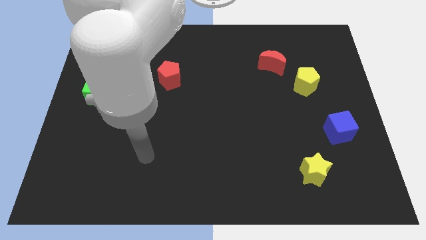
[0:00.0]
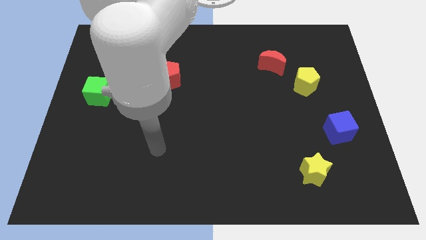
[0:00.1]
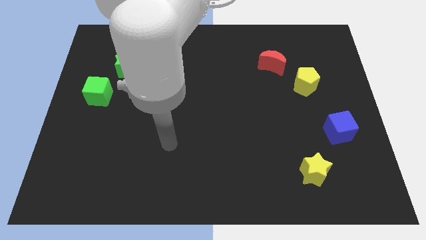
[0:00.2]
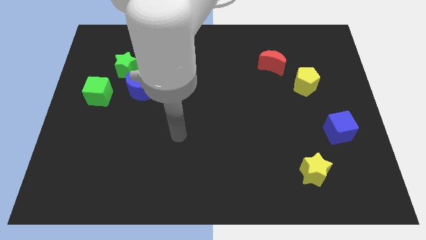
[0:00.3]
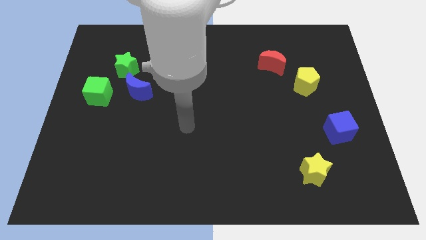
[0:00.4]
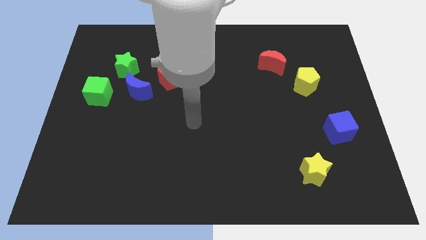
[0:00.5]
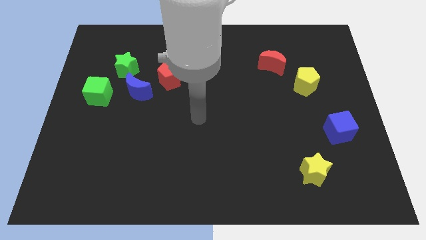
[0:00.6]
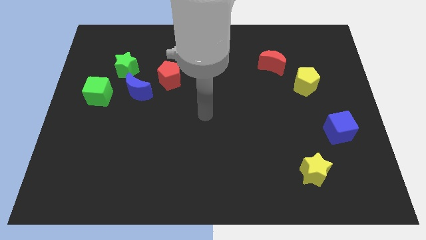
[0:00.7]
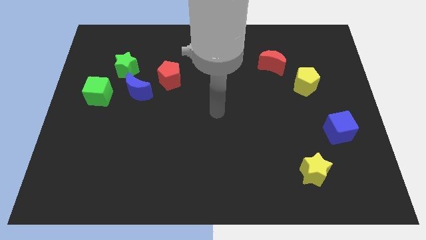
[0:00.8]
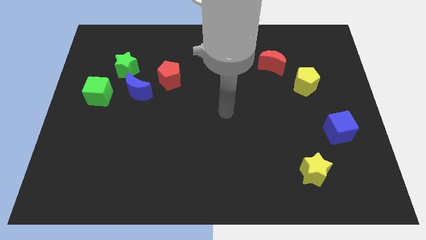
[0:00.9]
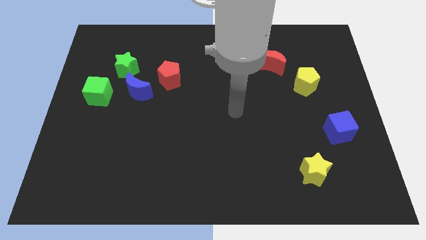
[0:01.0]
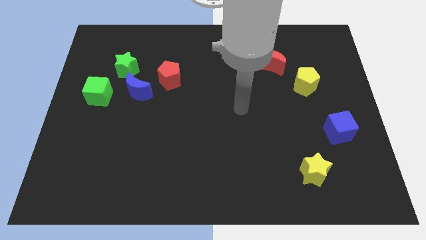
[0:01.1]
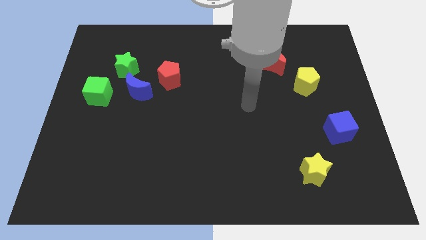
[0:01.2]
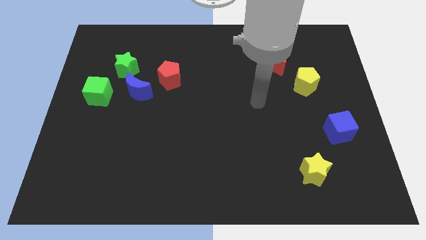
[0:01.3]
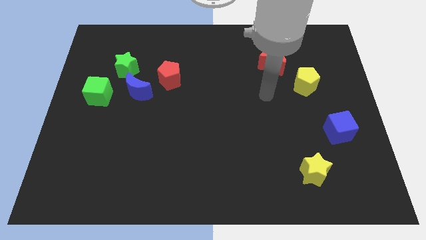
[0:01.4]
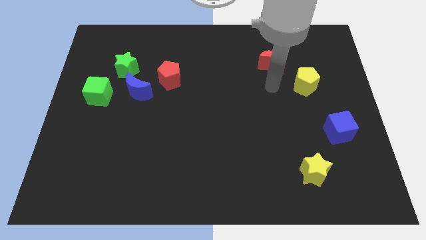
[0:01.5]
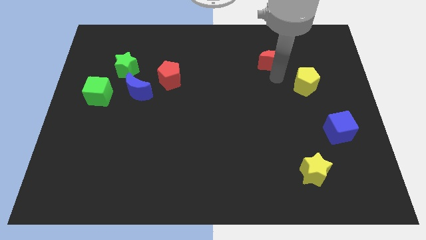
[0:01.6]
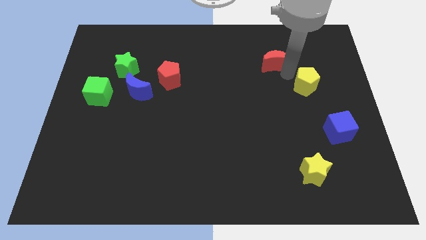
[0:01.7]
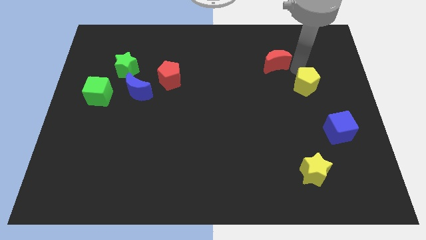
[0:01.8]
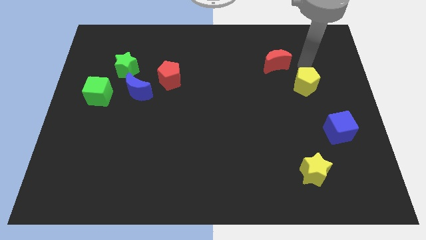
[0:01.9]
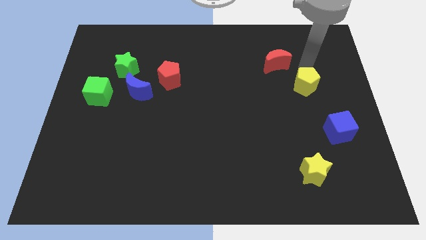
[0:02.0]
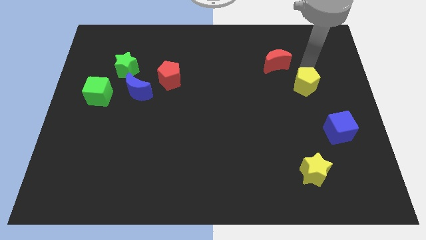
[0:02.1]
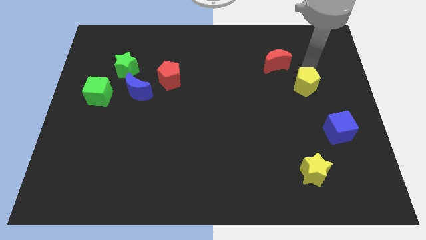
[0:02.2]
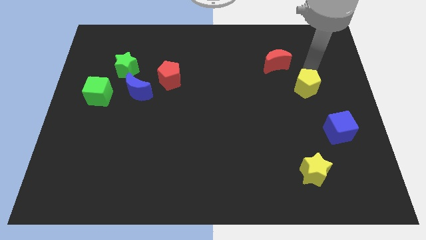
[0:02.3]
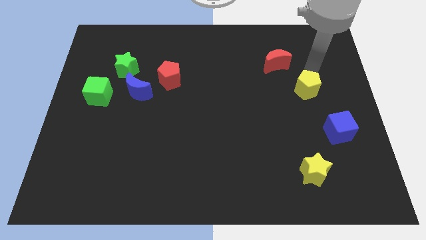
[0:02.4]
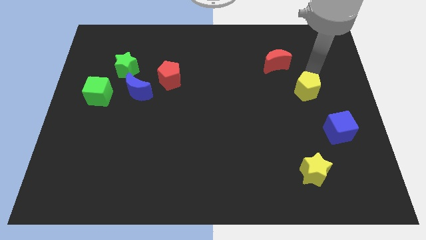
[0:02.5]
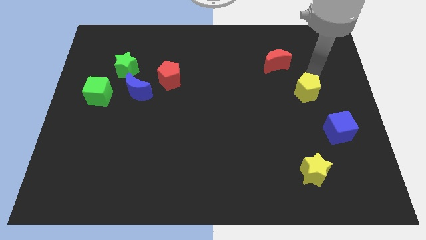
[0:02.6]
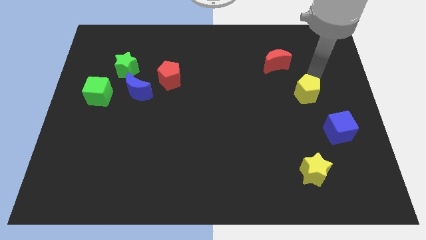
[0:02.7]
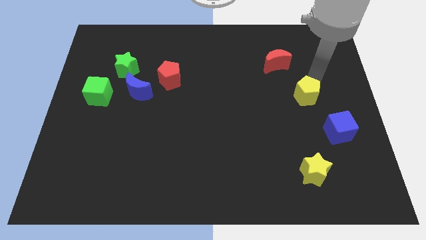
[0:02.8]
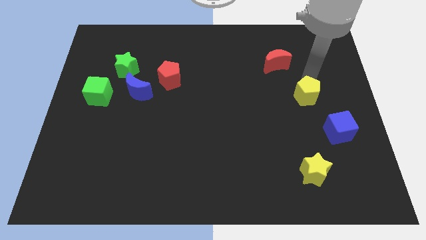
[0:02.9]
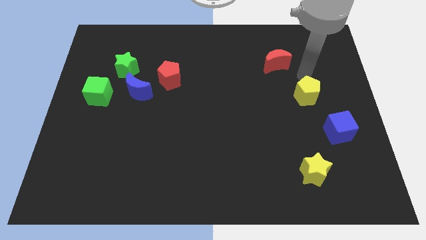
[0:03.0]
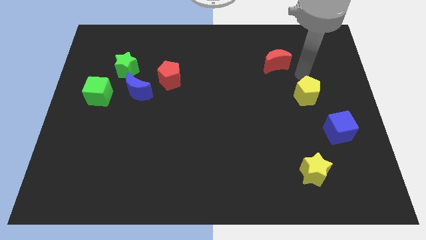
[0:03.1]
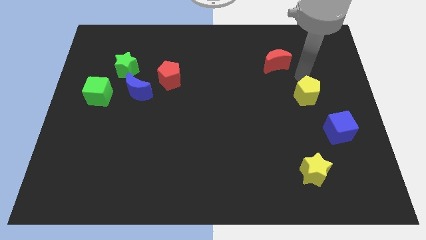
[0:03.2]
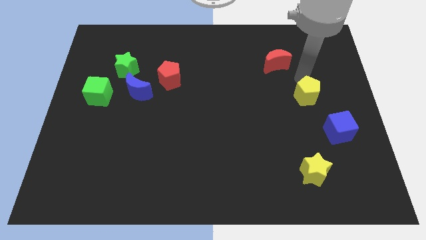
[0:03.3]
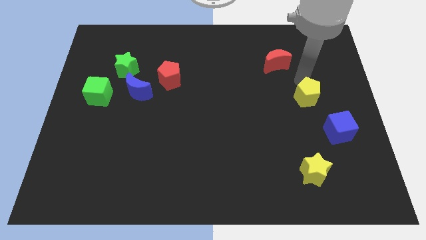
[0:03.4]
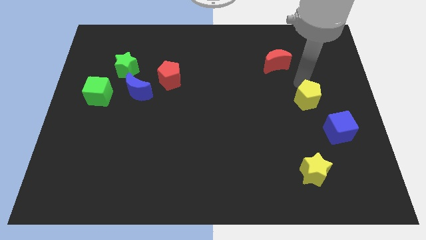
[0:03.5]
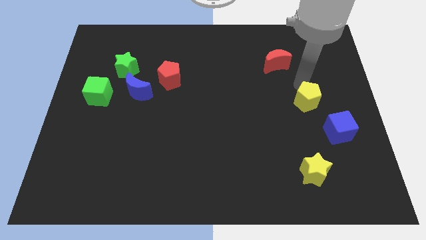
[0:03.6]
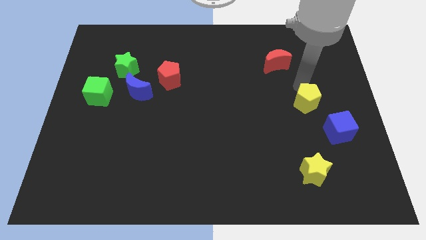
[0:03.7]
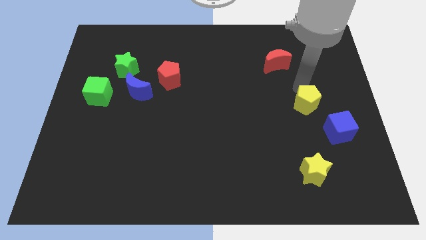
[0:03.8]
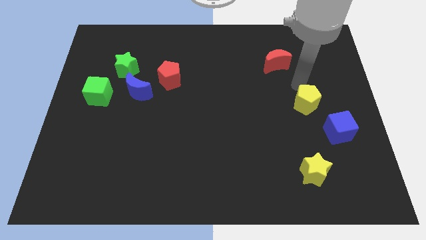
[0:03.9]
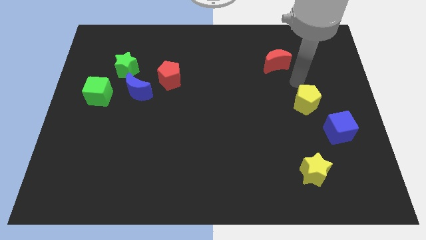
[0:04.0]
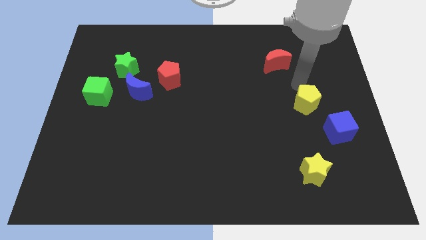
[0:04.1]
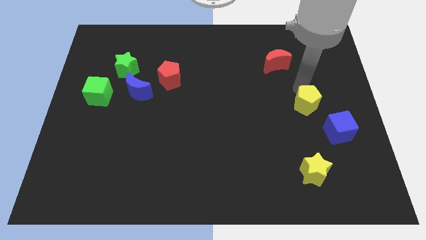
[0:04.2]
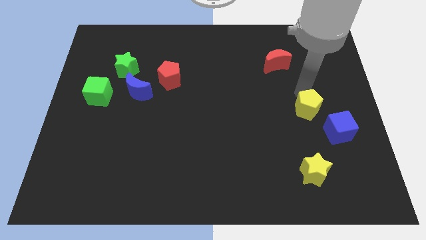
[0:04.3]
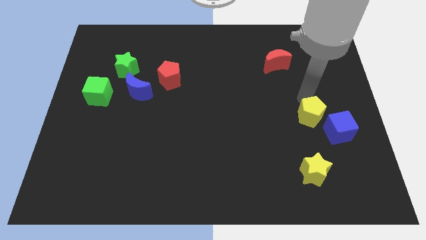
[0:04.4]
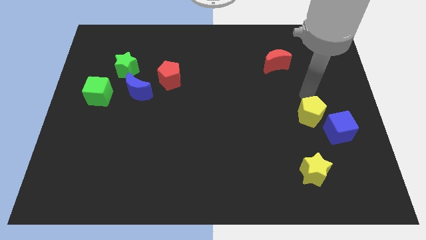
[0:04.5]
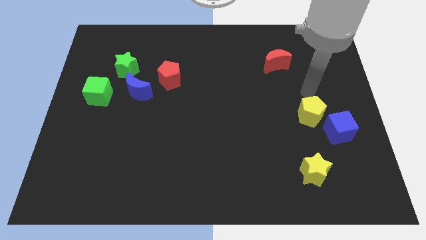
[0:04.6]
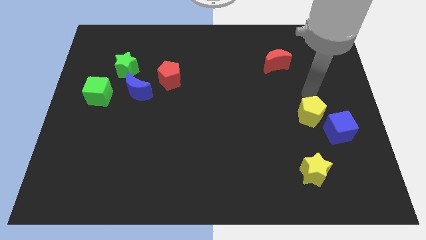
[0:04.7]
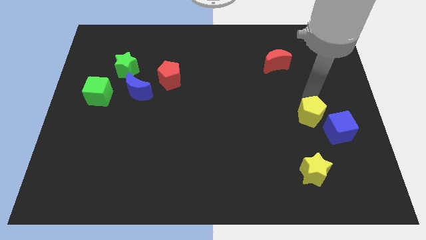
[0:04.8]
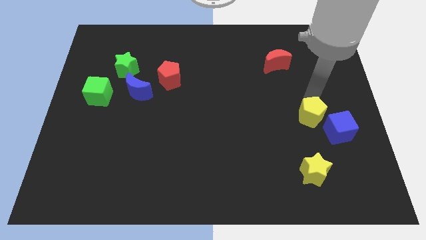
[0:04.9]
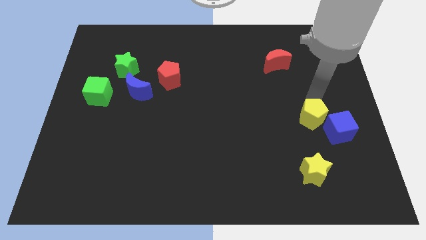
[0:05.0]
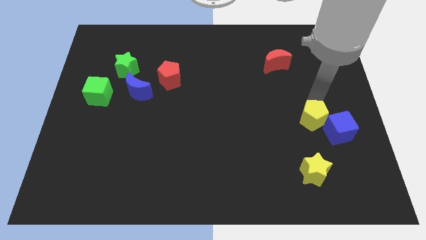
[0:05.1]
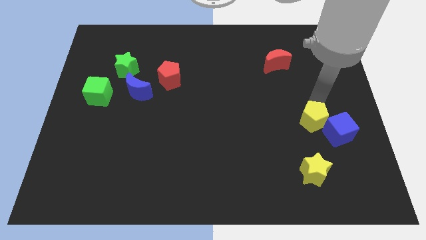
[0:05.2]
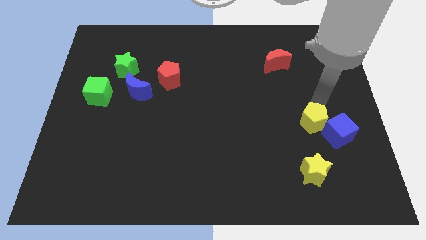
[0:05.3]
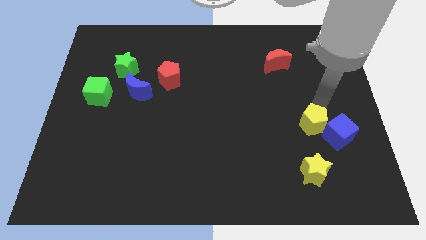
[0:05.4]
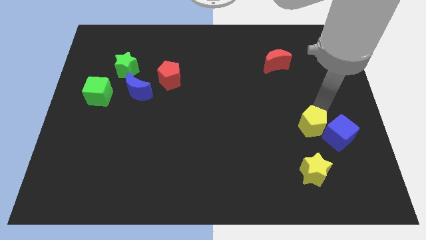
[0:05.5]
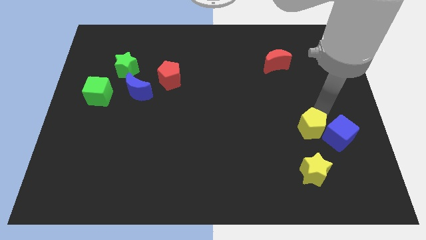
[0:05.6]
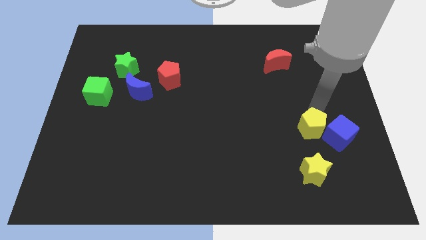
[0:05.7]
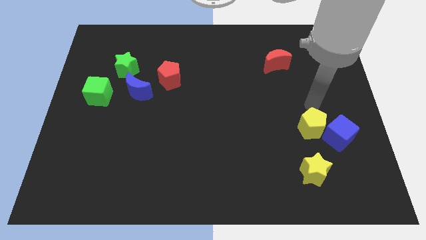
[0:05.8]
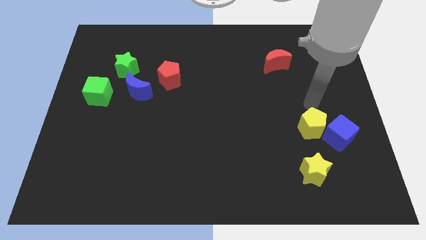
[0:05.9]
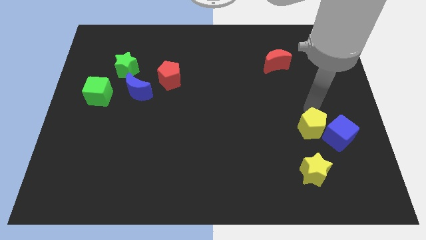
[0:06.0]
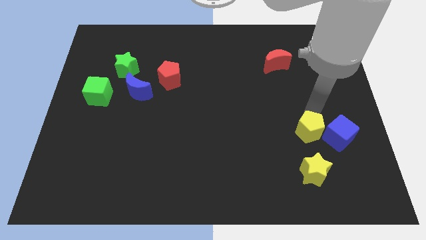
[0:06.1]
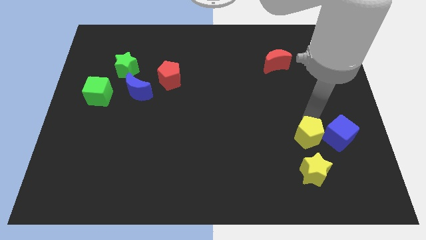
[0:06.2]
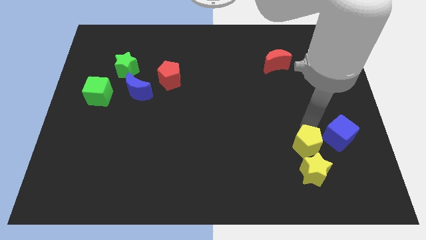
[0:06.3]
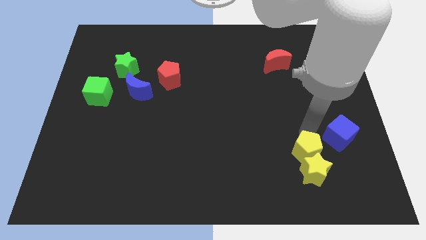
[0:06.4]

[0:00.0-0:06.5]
move the yellow pentagon next to the yellow star
